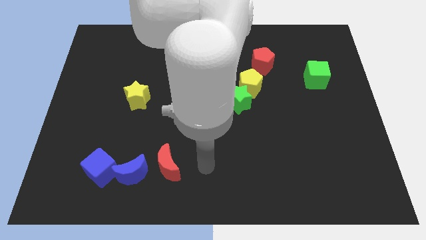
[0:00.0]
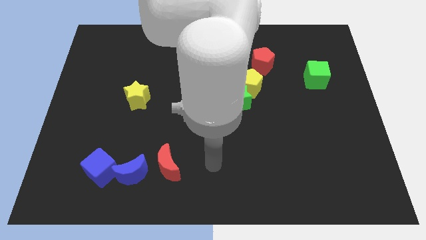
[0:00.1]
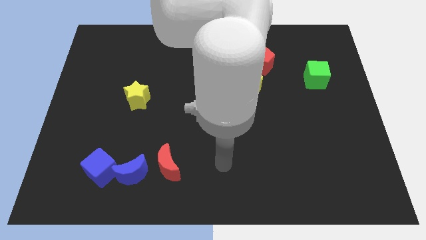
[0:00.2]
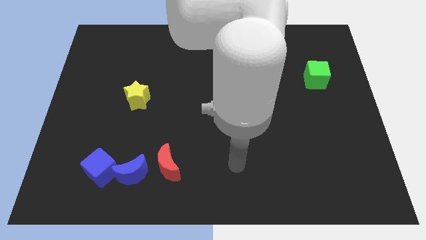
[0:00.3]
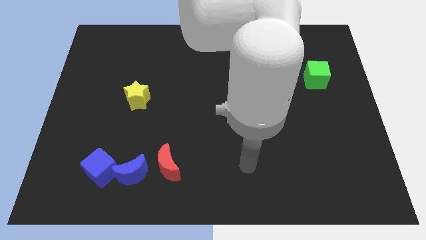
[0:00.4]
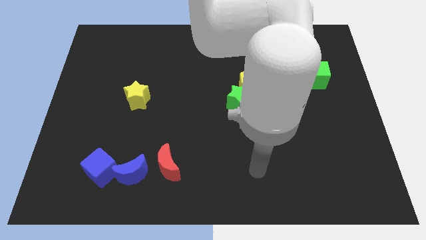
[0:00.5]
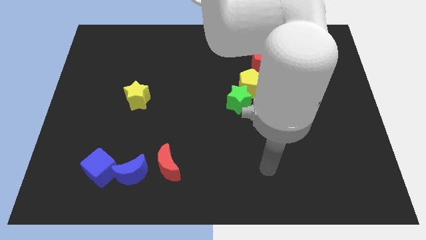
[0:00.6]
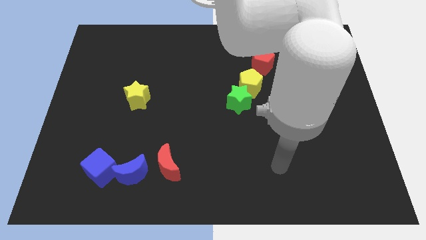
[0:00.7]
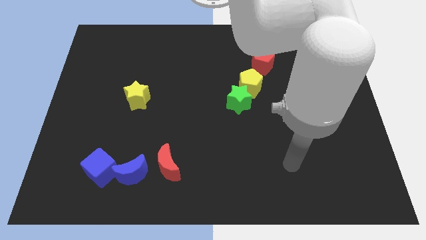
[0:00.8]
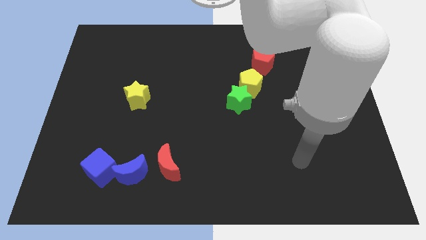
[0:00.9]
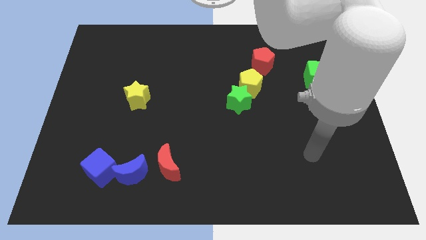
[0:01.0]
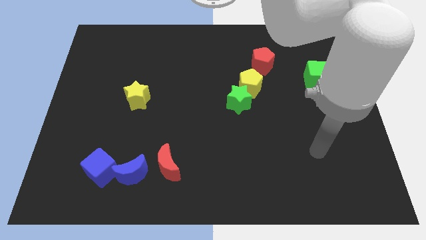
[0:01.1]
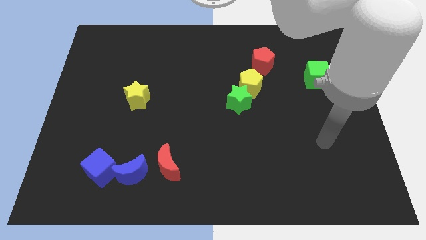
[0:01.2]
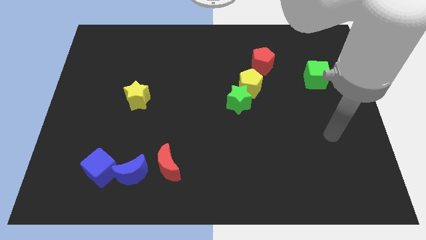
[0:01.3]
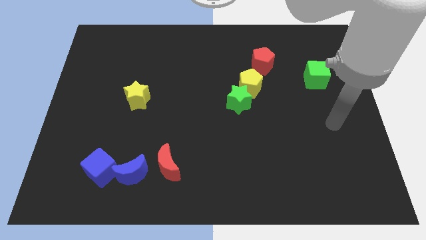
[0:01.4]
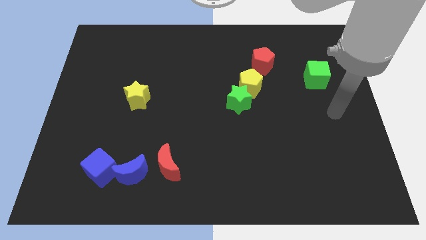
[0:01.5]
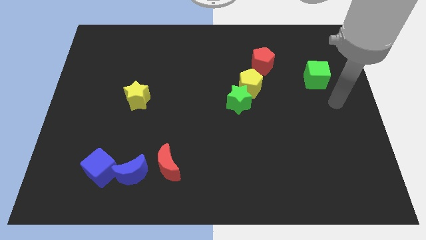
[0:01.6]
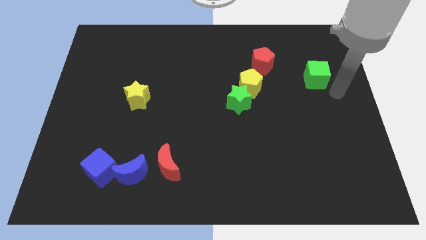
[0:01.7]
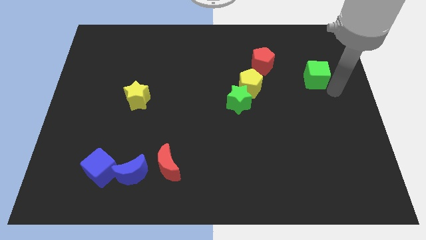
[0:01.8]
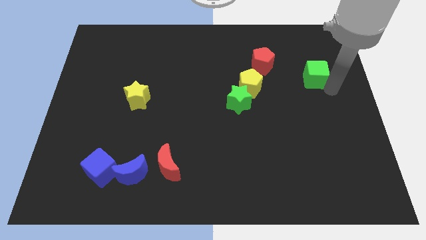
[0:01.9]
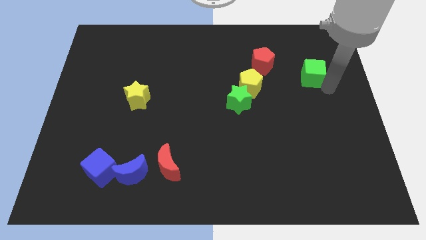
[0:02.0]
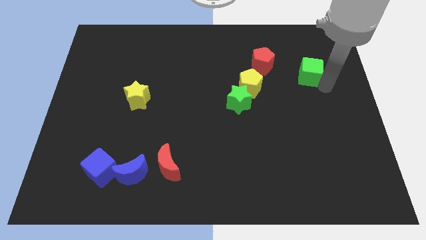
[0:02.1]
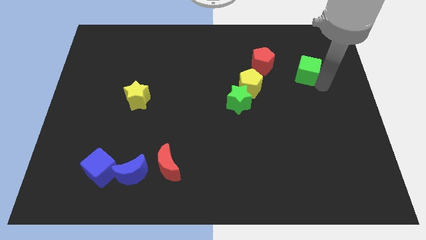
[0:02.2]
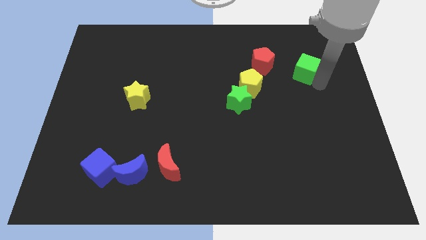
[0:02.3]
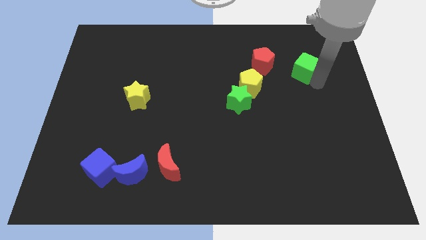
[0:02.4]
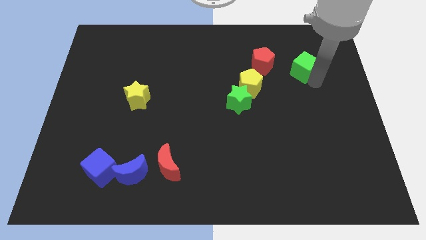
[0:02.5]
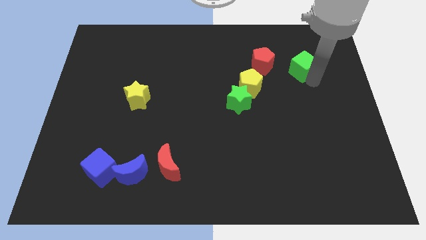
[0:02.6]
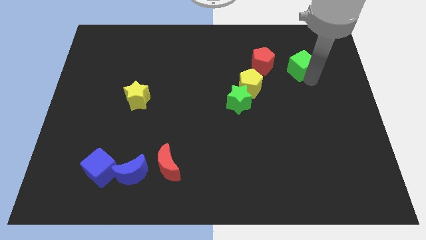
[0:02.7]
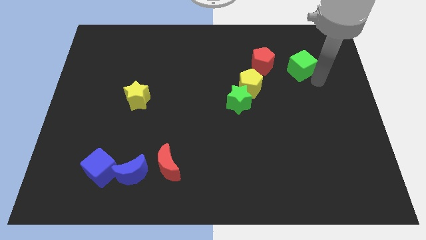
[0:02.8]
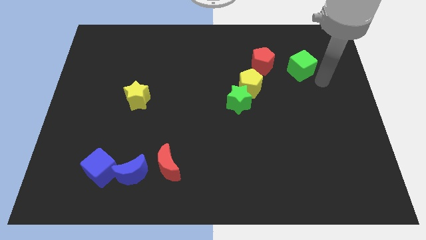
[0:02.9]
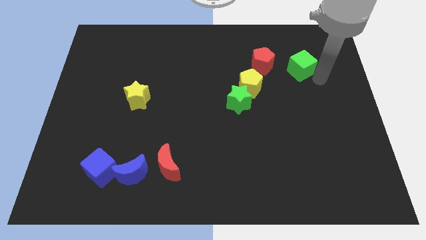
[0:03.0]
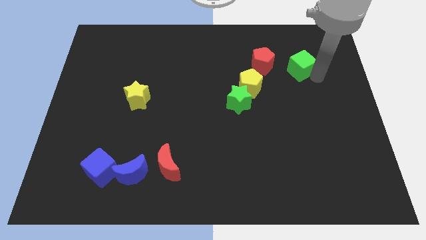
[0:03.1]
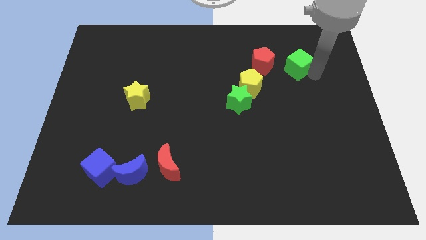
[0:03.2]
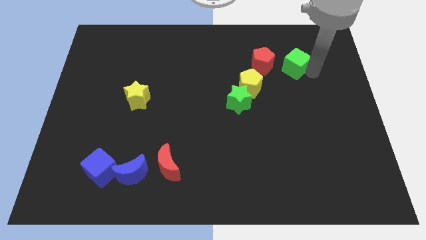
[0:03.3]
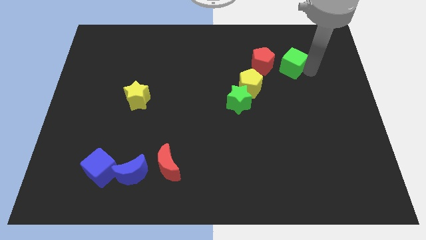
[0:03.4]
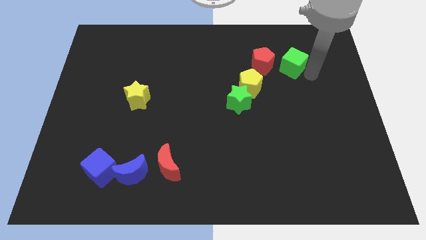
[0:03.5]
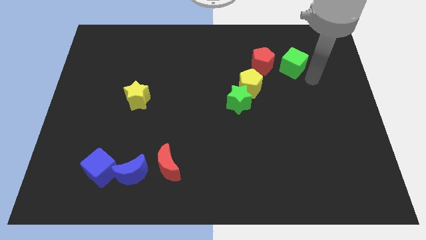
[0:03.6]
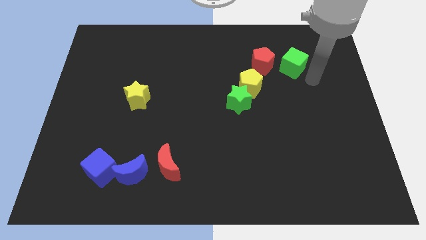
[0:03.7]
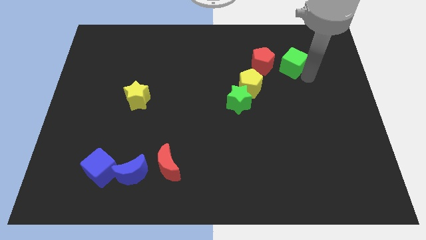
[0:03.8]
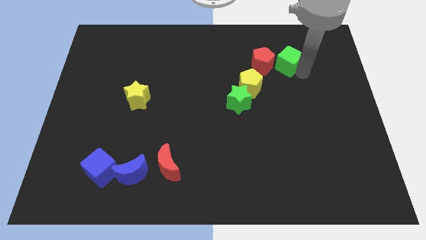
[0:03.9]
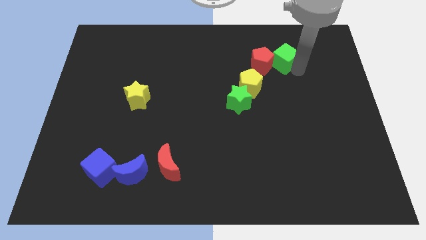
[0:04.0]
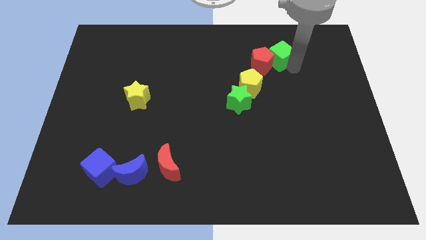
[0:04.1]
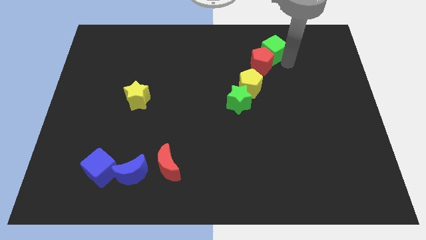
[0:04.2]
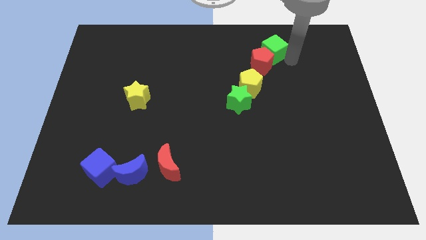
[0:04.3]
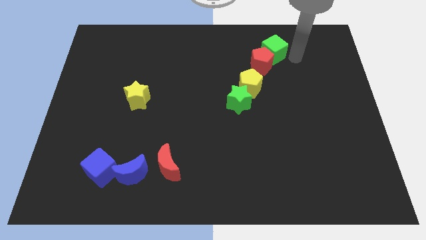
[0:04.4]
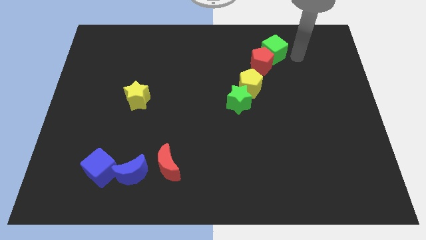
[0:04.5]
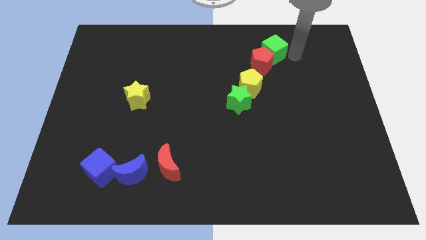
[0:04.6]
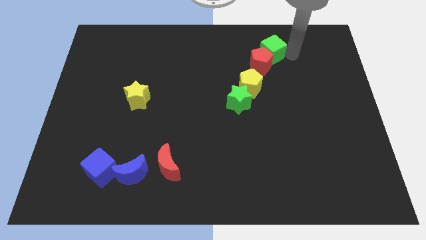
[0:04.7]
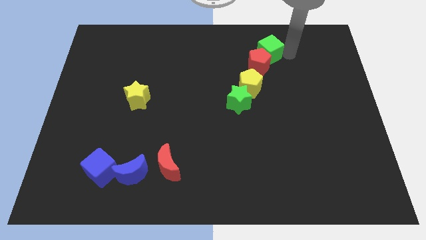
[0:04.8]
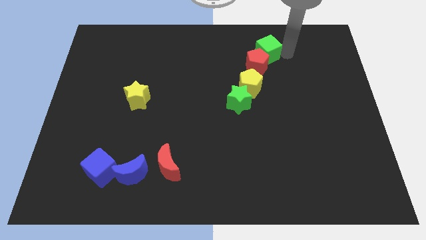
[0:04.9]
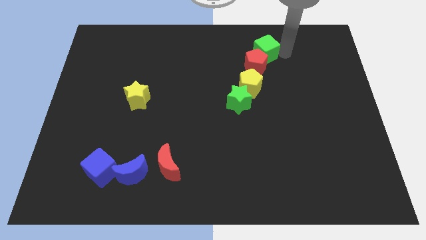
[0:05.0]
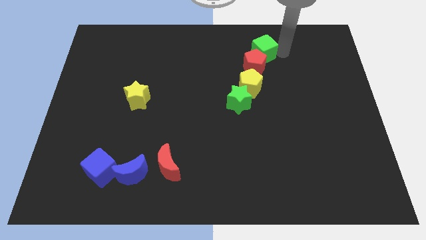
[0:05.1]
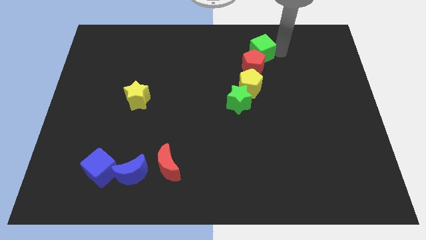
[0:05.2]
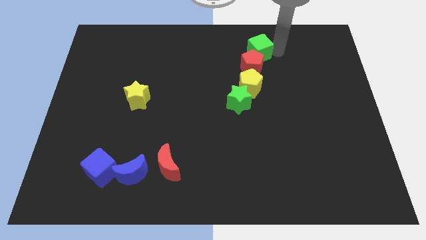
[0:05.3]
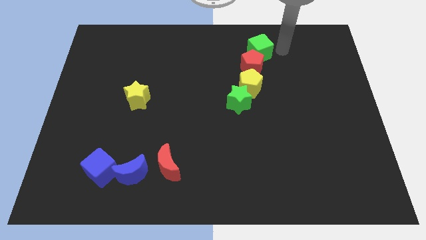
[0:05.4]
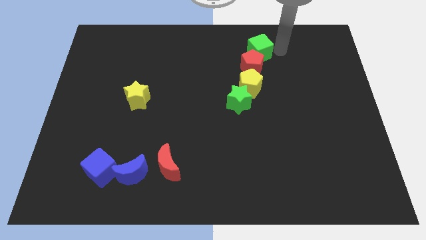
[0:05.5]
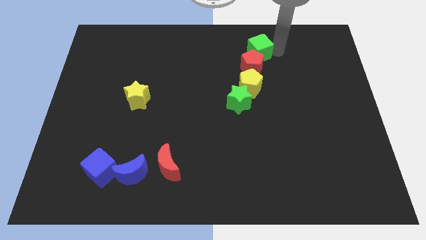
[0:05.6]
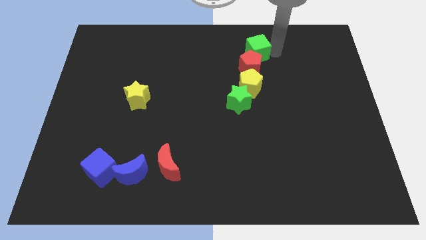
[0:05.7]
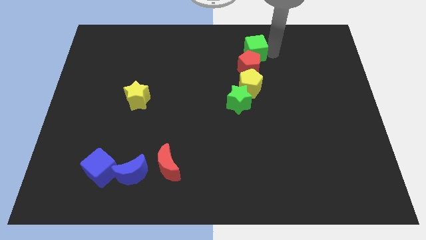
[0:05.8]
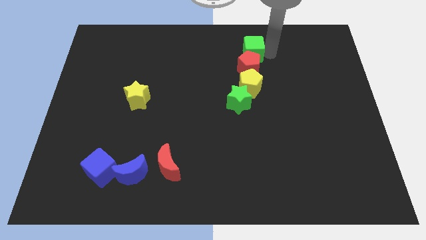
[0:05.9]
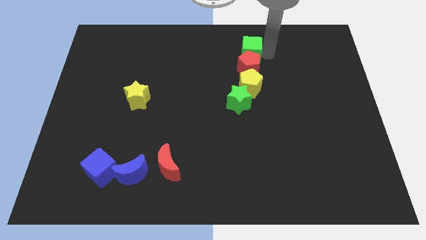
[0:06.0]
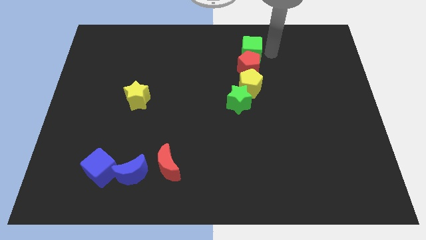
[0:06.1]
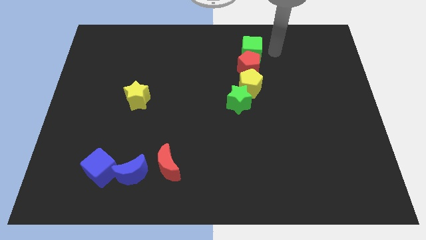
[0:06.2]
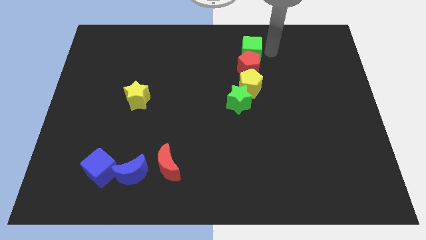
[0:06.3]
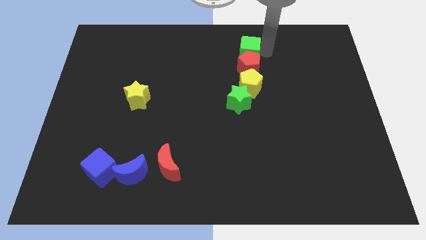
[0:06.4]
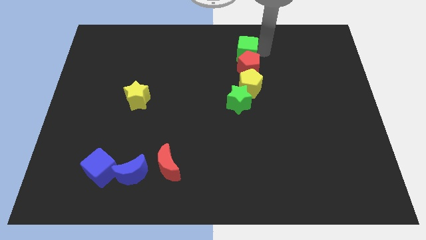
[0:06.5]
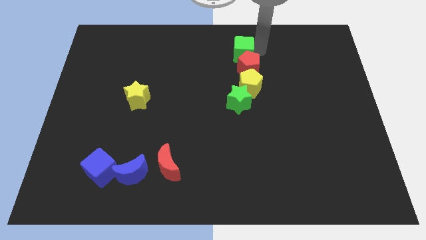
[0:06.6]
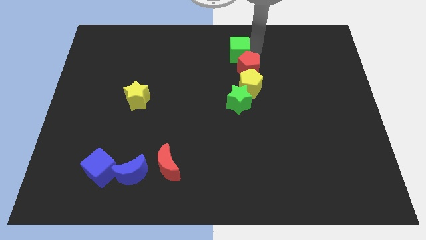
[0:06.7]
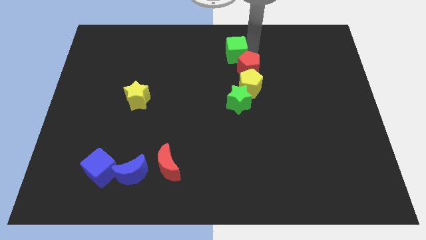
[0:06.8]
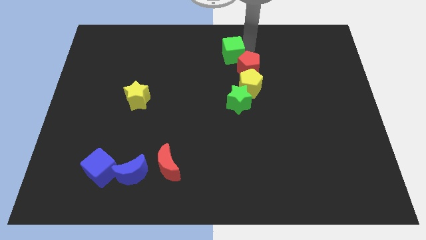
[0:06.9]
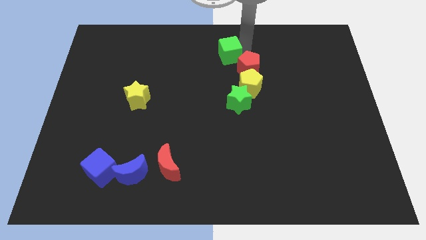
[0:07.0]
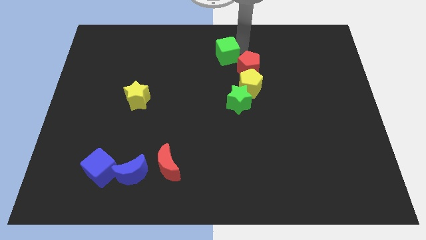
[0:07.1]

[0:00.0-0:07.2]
put the green cube to the left of the red pentagon
